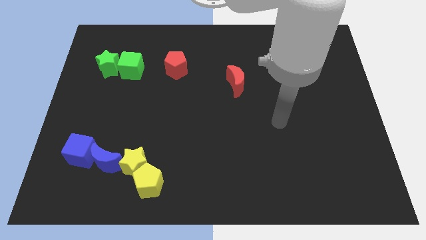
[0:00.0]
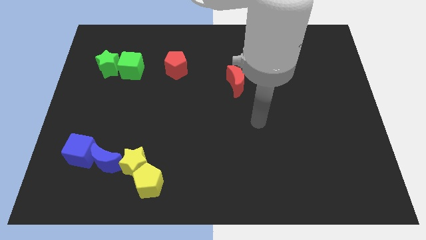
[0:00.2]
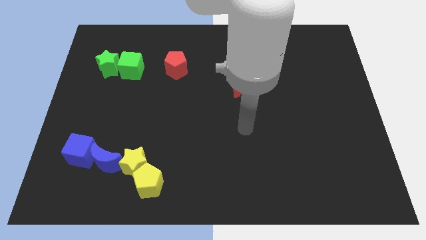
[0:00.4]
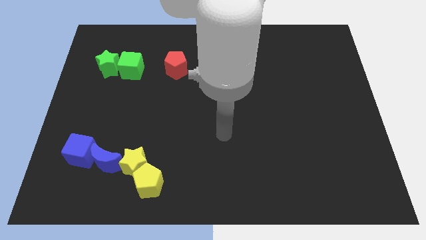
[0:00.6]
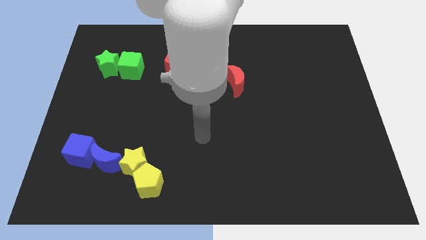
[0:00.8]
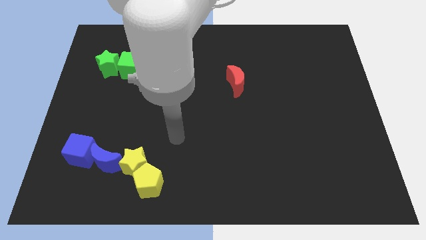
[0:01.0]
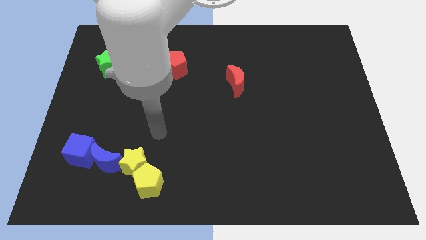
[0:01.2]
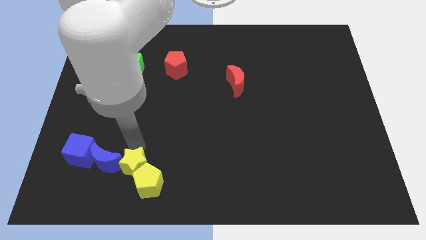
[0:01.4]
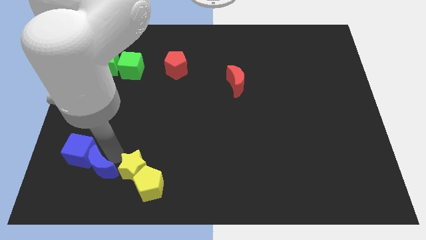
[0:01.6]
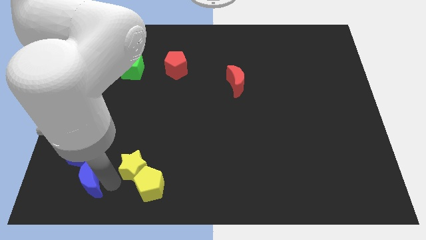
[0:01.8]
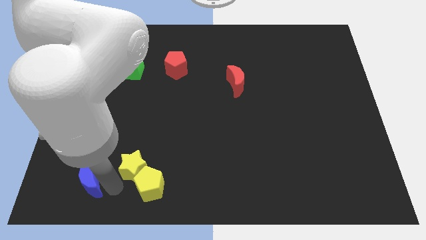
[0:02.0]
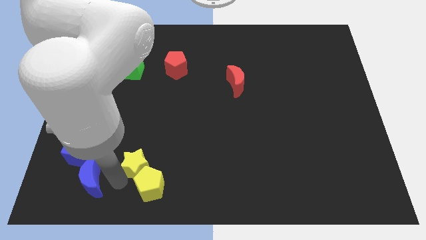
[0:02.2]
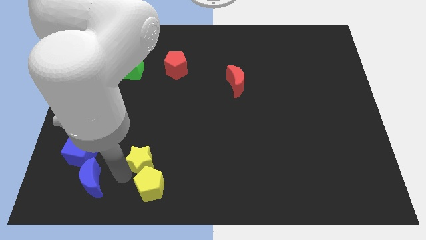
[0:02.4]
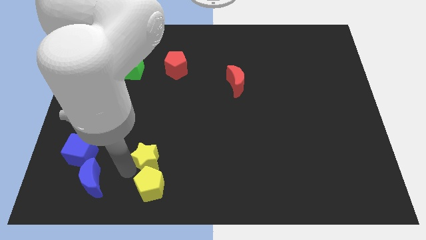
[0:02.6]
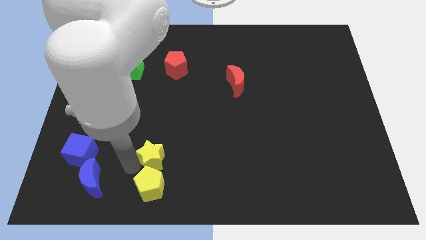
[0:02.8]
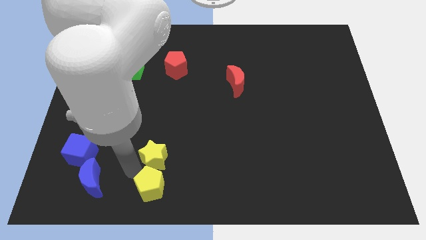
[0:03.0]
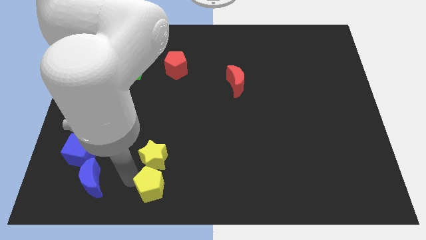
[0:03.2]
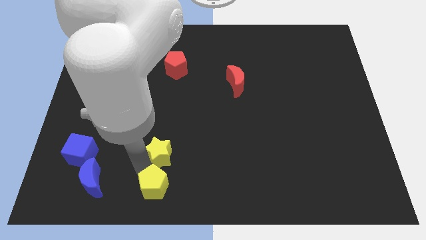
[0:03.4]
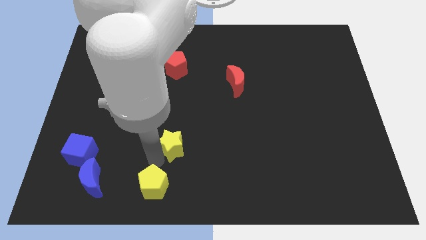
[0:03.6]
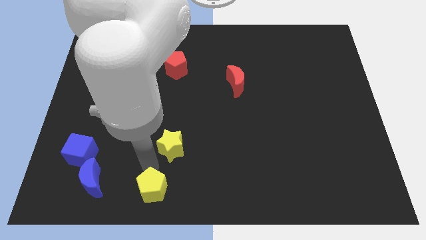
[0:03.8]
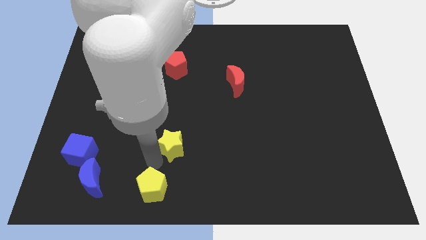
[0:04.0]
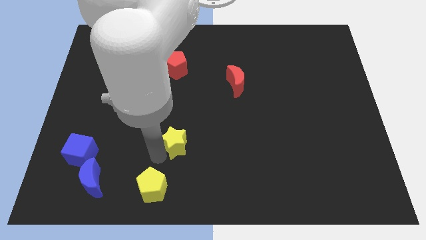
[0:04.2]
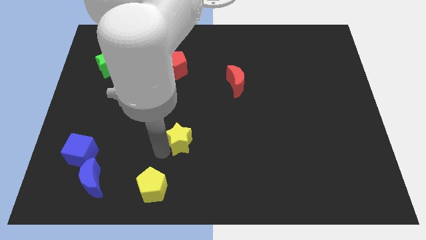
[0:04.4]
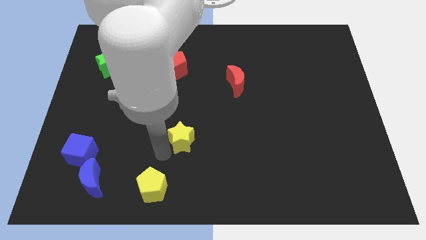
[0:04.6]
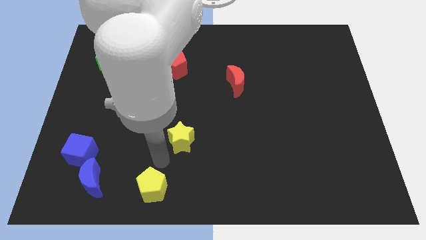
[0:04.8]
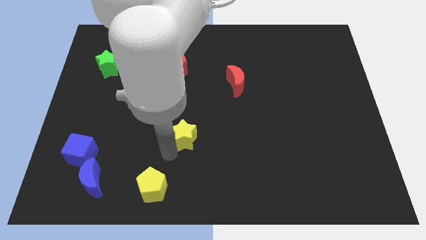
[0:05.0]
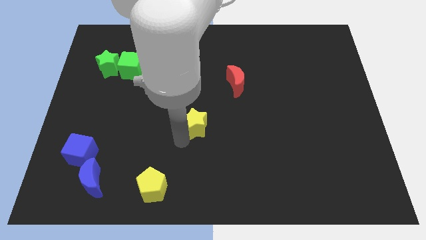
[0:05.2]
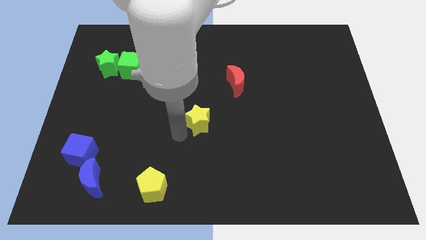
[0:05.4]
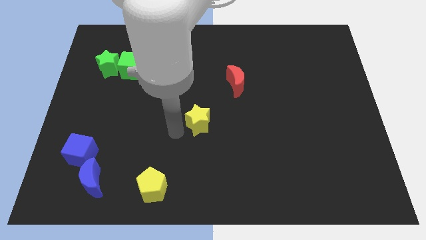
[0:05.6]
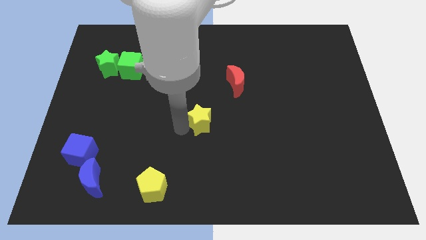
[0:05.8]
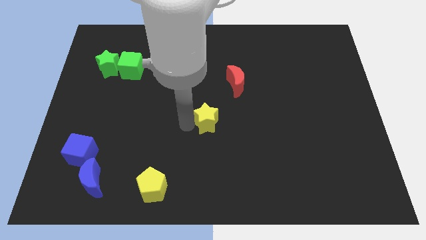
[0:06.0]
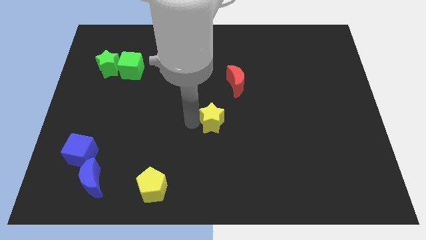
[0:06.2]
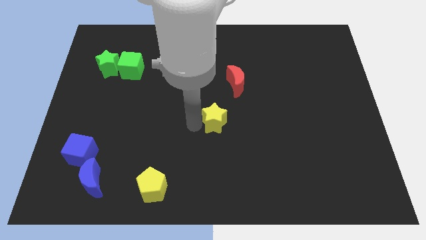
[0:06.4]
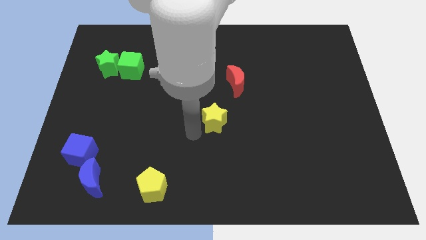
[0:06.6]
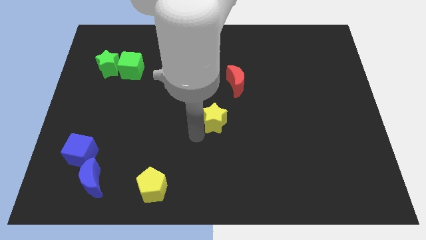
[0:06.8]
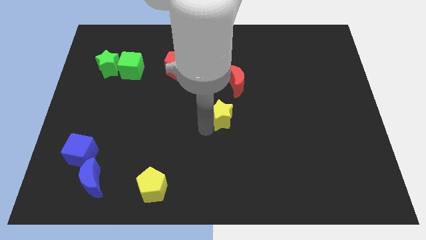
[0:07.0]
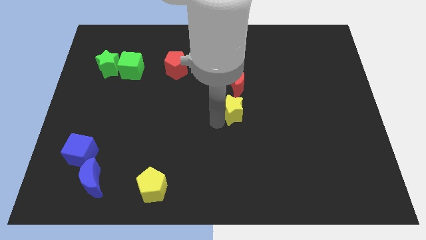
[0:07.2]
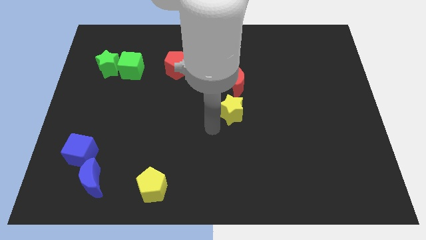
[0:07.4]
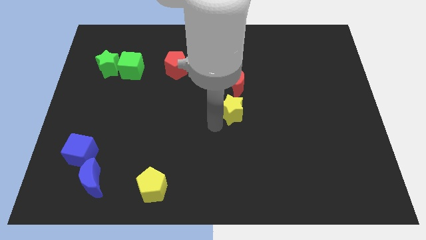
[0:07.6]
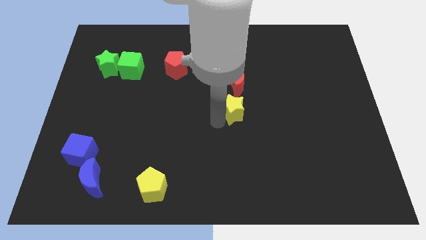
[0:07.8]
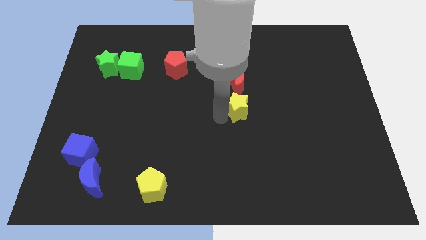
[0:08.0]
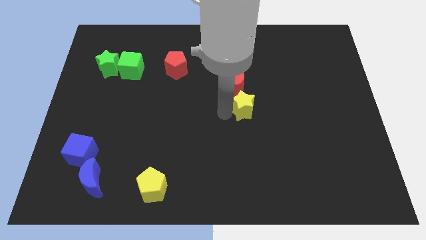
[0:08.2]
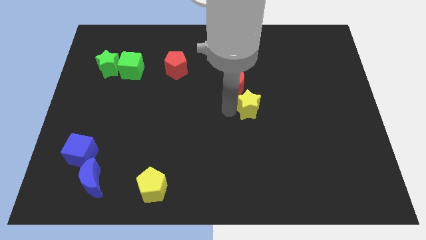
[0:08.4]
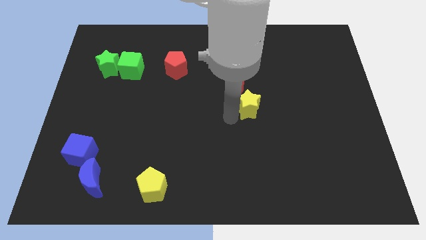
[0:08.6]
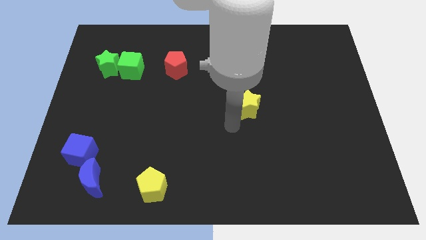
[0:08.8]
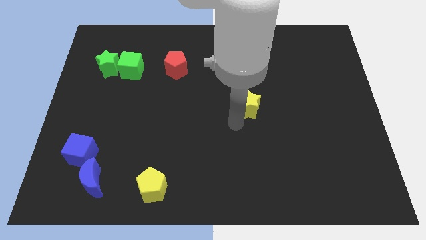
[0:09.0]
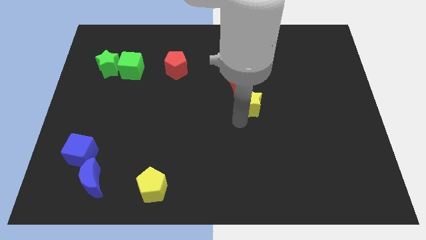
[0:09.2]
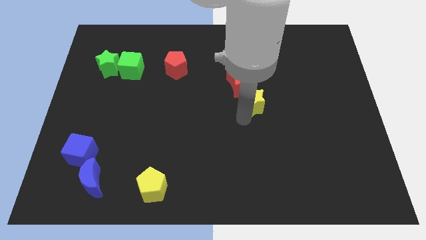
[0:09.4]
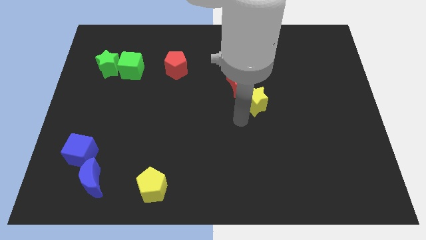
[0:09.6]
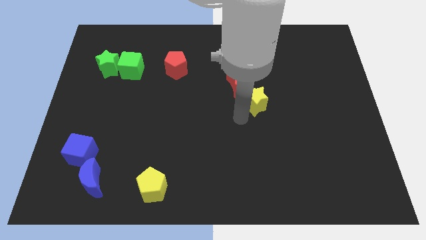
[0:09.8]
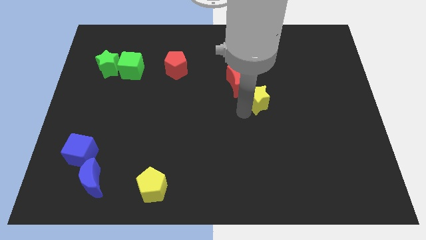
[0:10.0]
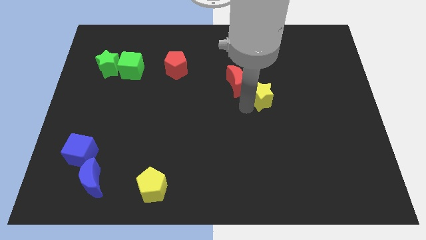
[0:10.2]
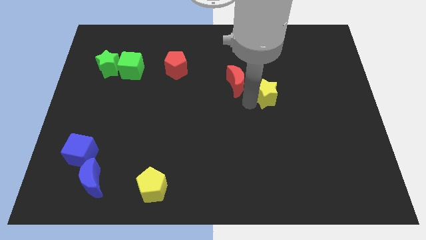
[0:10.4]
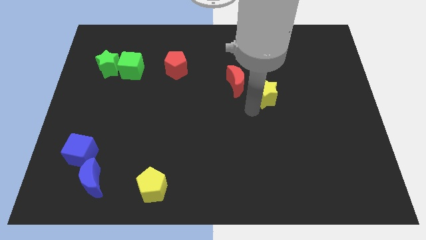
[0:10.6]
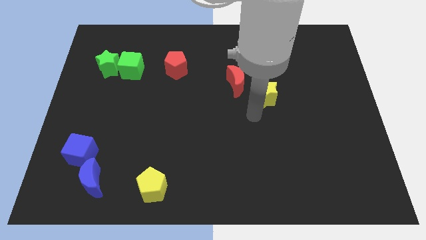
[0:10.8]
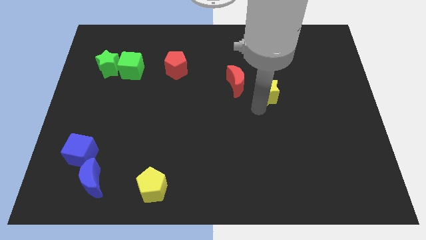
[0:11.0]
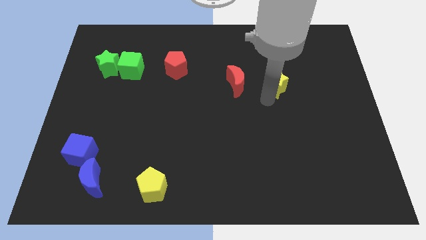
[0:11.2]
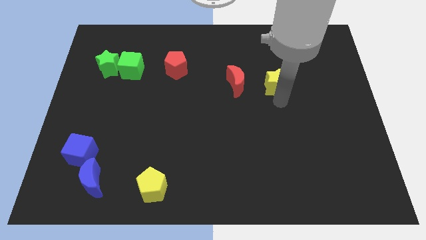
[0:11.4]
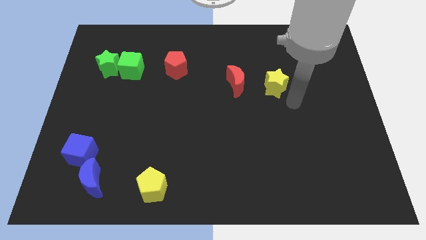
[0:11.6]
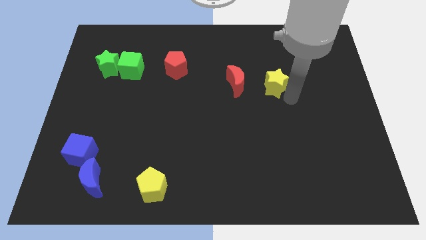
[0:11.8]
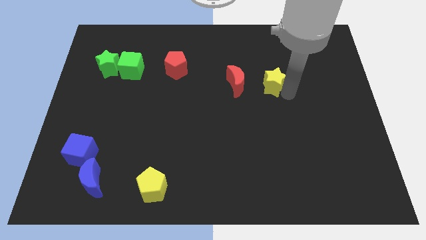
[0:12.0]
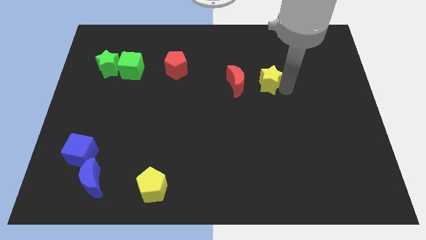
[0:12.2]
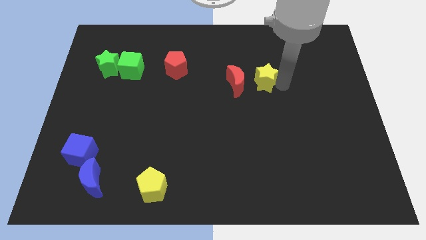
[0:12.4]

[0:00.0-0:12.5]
move the yellow star to the top right side of the red moon

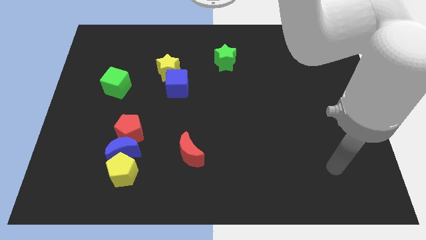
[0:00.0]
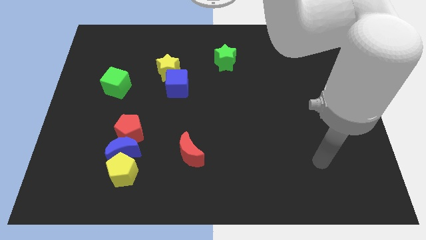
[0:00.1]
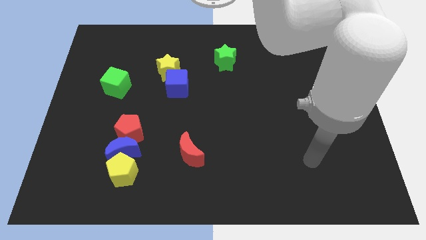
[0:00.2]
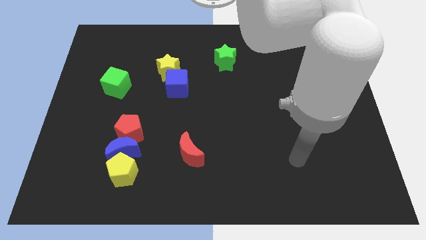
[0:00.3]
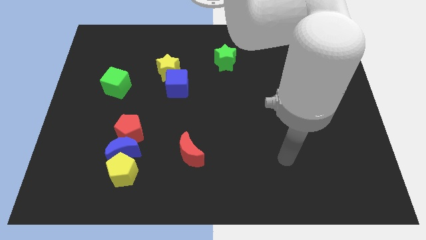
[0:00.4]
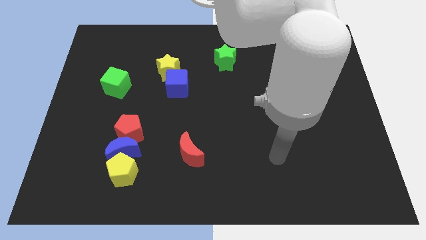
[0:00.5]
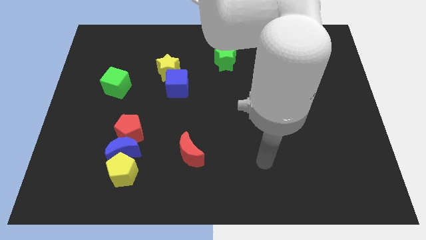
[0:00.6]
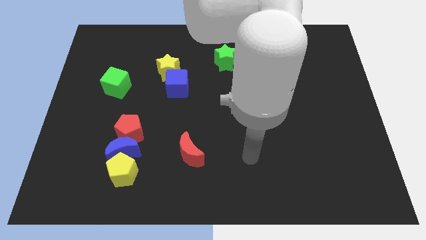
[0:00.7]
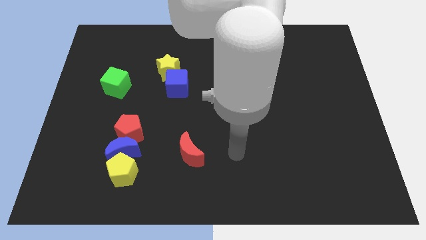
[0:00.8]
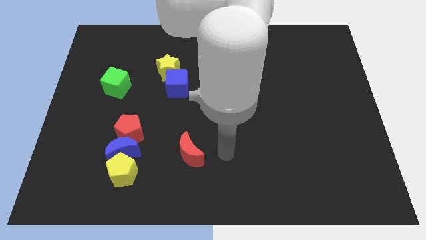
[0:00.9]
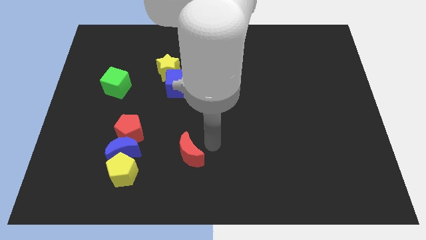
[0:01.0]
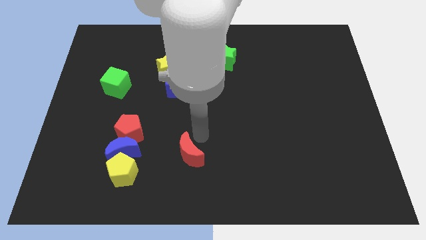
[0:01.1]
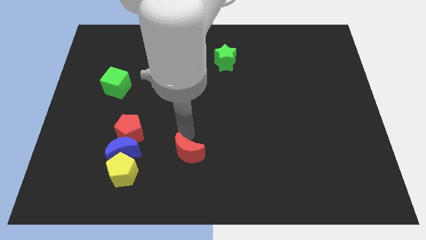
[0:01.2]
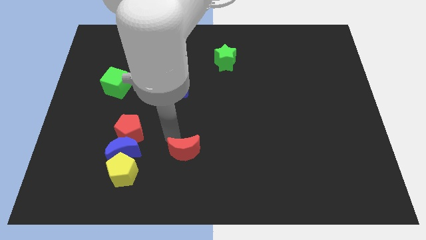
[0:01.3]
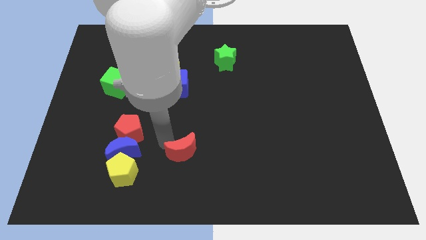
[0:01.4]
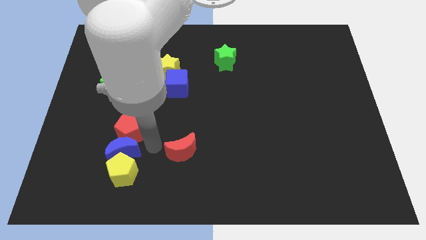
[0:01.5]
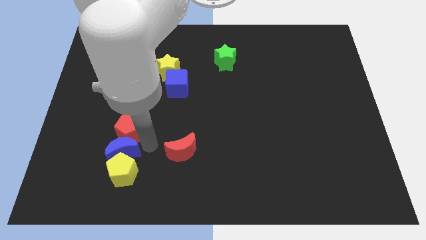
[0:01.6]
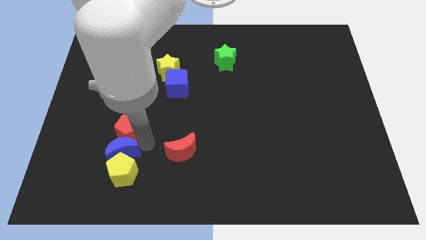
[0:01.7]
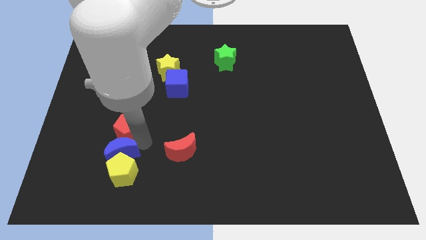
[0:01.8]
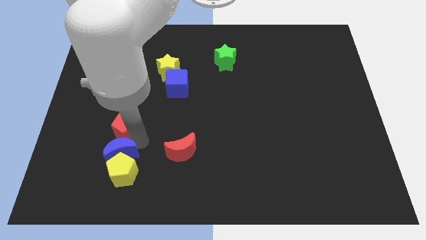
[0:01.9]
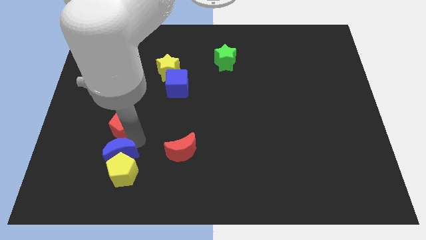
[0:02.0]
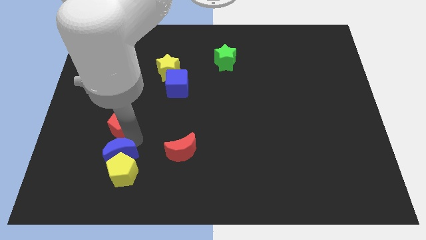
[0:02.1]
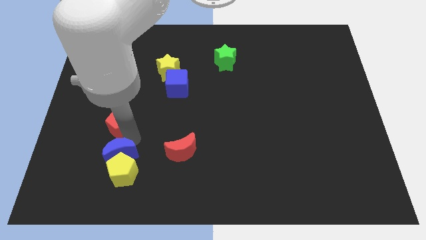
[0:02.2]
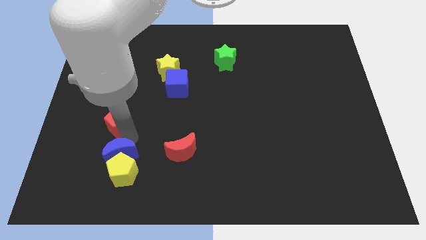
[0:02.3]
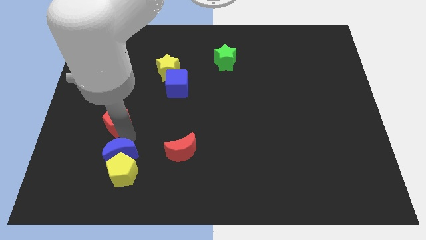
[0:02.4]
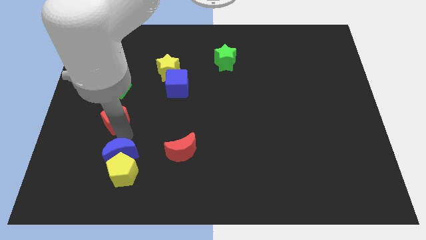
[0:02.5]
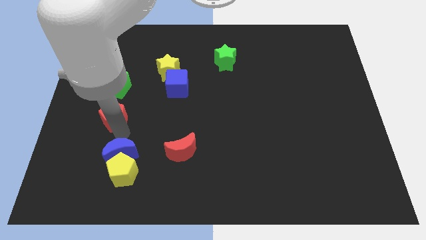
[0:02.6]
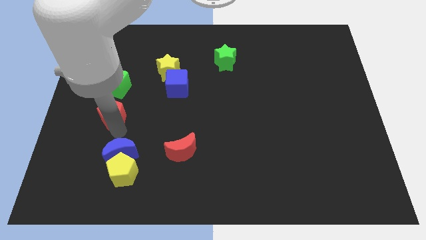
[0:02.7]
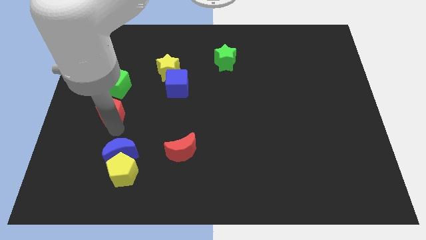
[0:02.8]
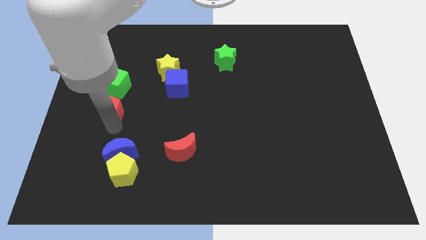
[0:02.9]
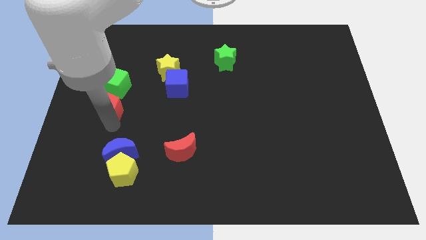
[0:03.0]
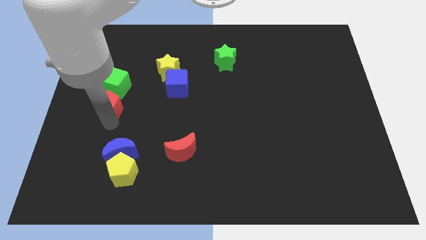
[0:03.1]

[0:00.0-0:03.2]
push the red pentagon diagonally down and to the left of the green cube
